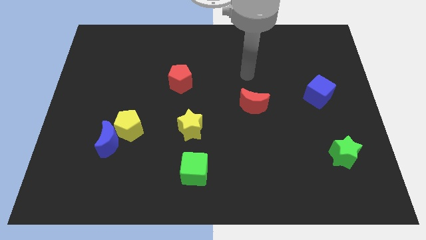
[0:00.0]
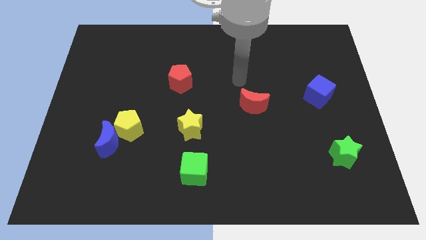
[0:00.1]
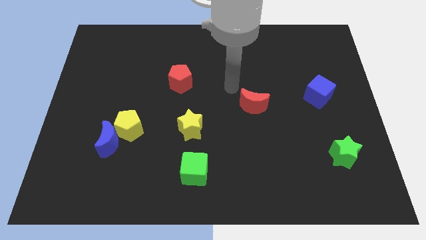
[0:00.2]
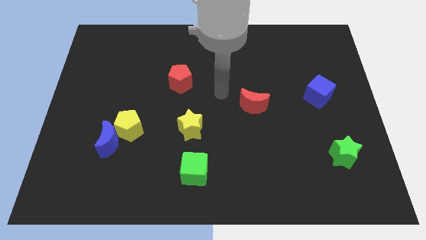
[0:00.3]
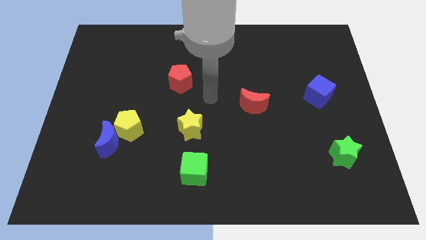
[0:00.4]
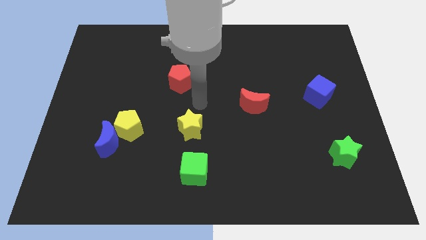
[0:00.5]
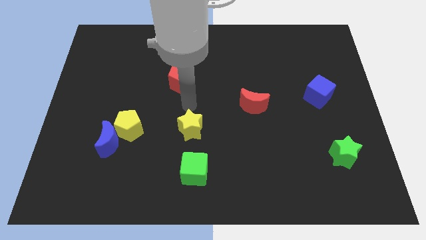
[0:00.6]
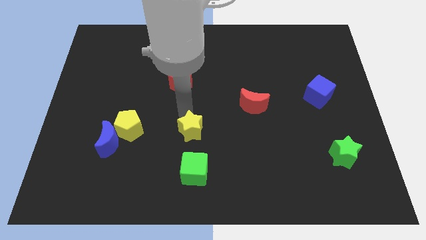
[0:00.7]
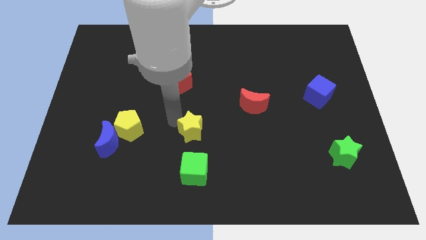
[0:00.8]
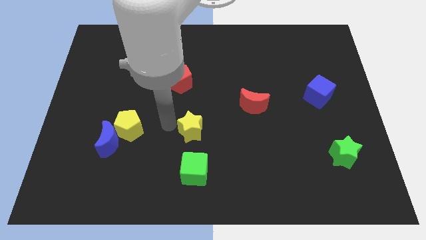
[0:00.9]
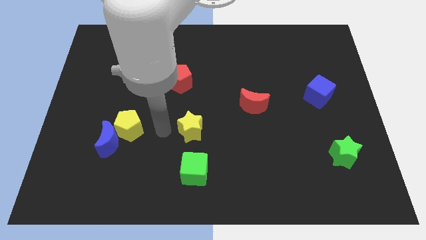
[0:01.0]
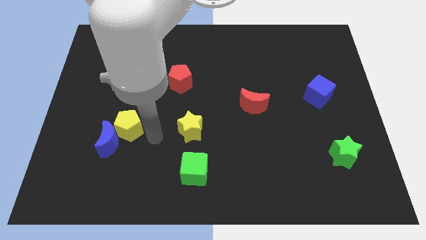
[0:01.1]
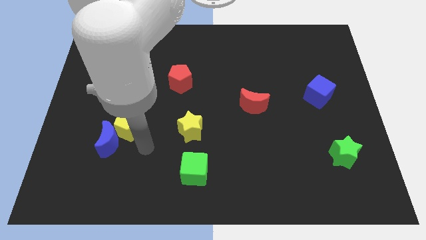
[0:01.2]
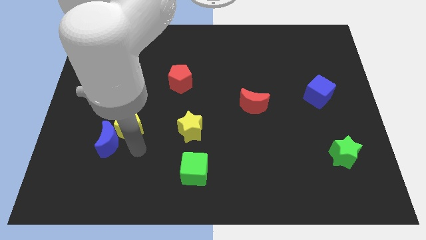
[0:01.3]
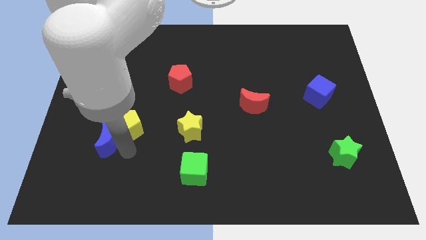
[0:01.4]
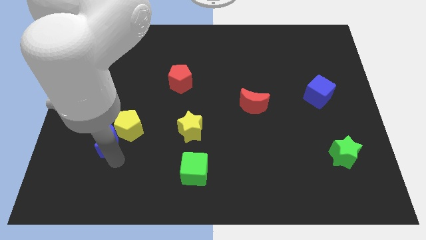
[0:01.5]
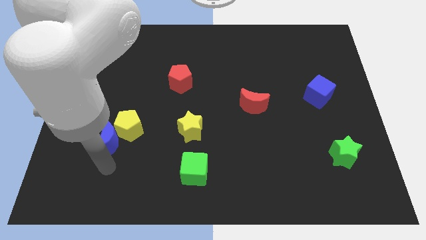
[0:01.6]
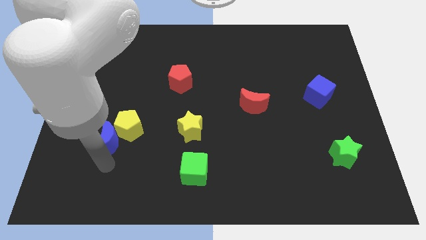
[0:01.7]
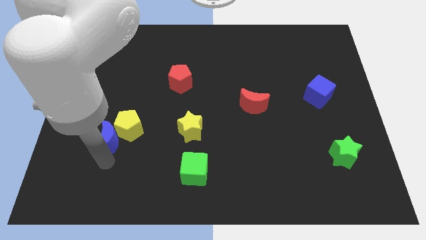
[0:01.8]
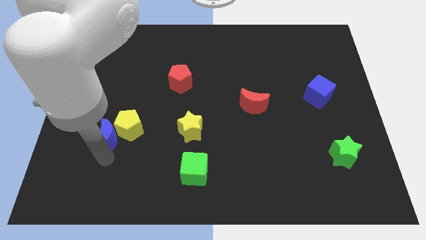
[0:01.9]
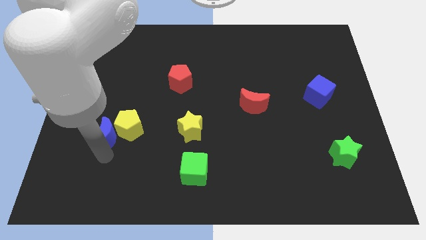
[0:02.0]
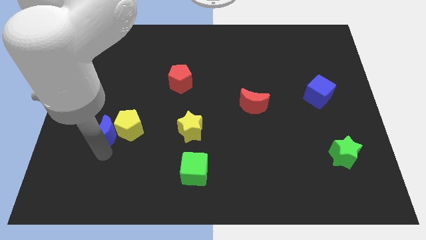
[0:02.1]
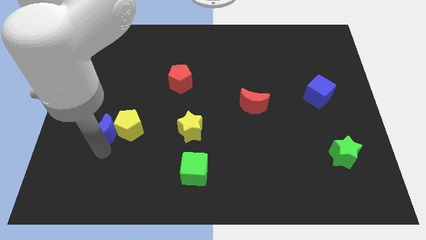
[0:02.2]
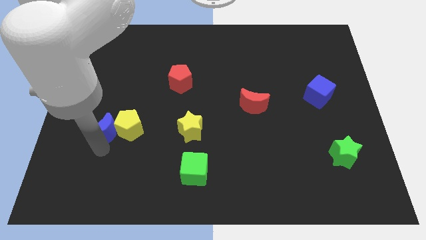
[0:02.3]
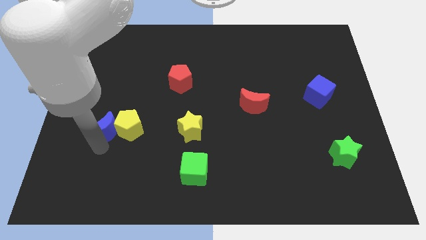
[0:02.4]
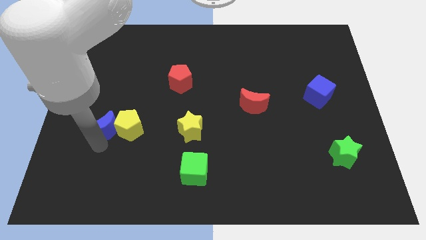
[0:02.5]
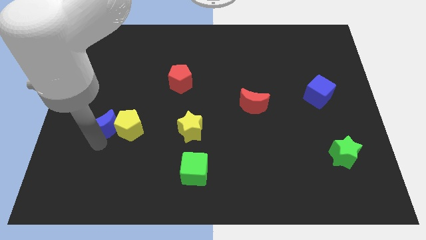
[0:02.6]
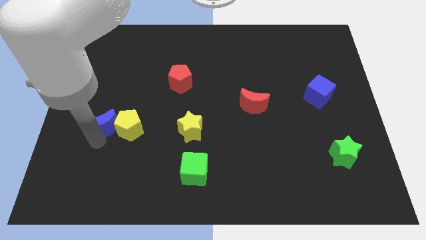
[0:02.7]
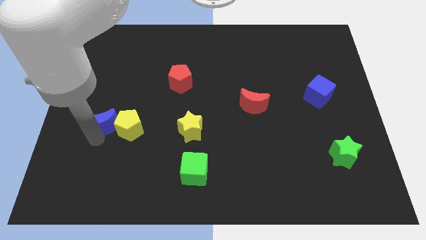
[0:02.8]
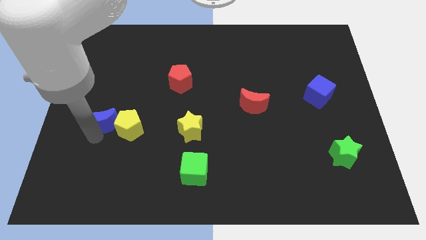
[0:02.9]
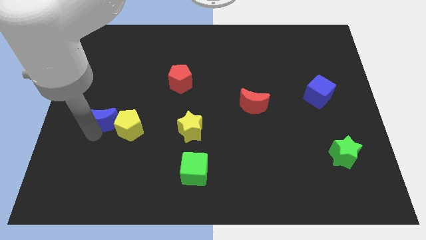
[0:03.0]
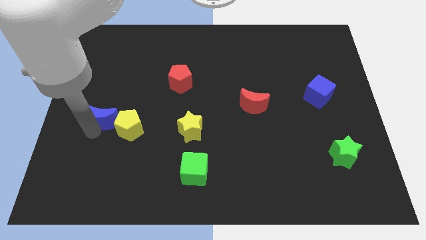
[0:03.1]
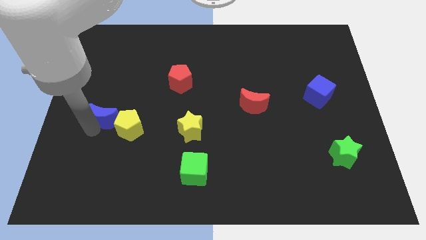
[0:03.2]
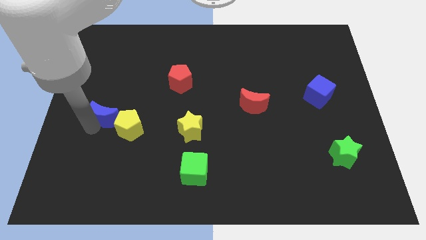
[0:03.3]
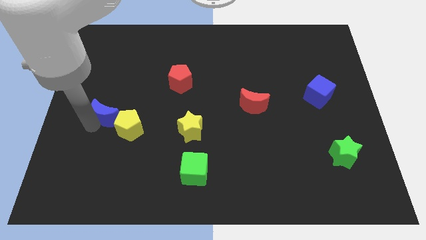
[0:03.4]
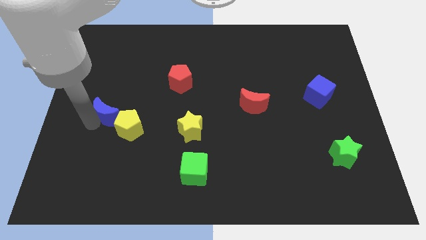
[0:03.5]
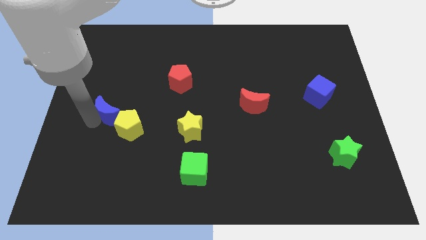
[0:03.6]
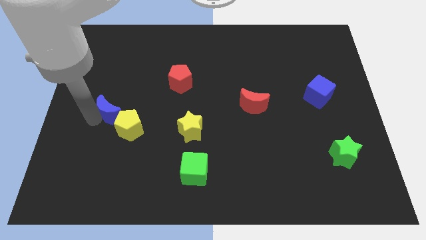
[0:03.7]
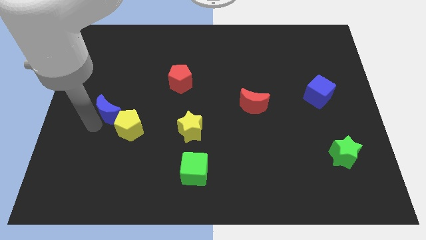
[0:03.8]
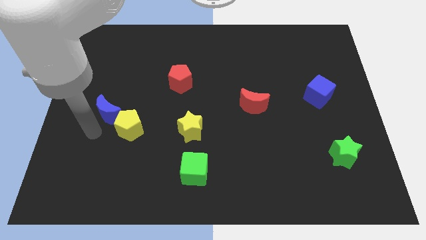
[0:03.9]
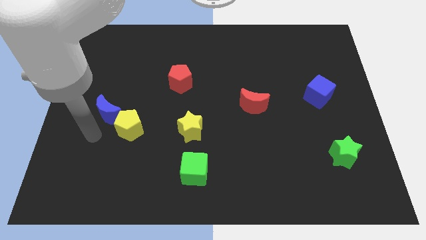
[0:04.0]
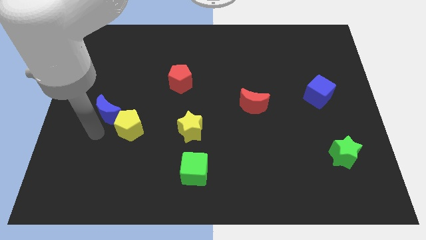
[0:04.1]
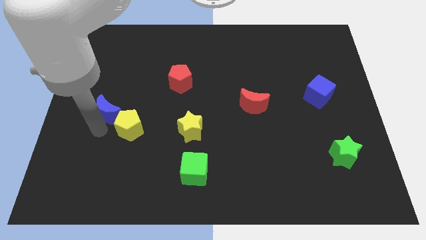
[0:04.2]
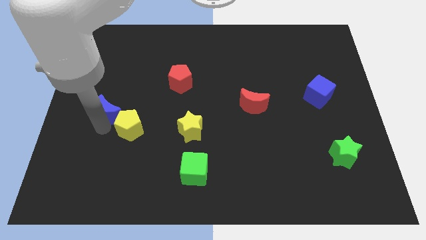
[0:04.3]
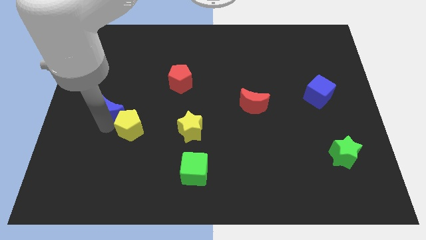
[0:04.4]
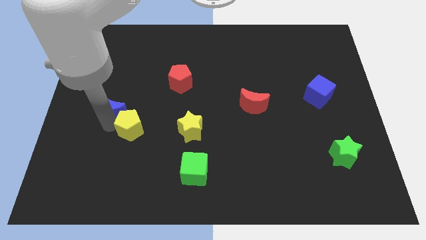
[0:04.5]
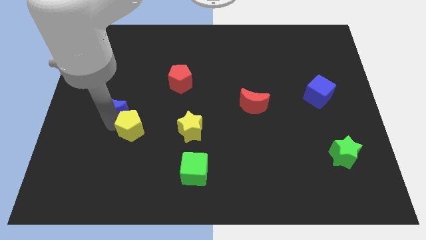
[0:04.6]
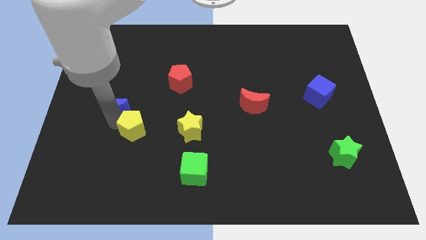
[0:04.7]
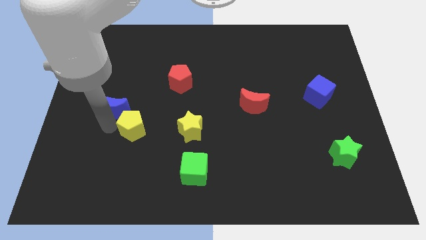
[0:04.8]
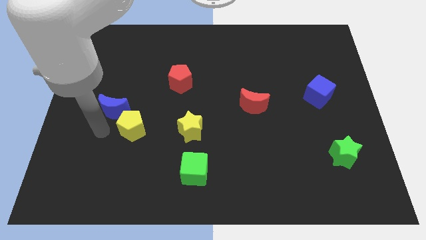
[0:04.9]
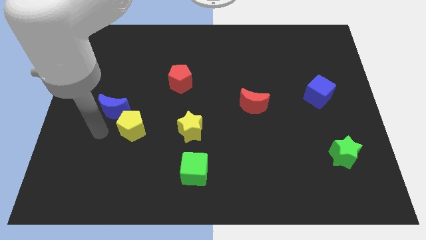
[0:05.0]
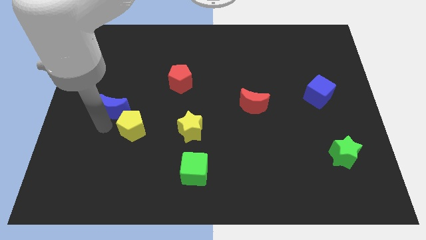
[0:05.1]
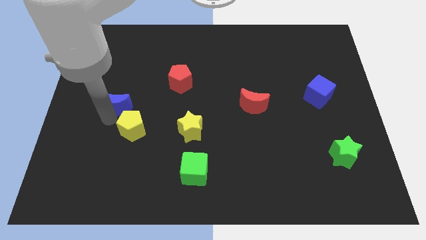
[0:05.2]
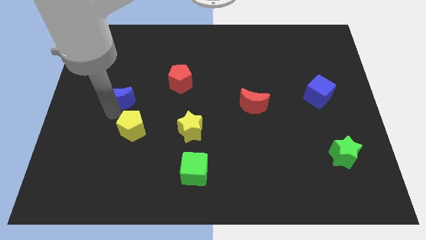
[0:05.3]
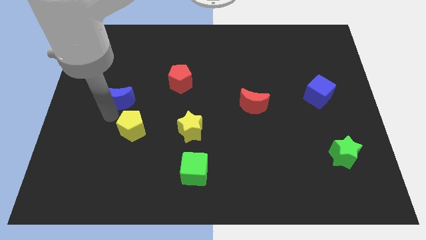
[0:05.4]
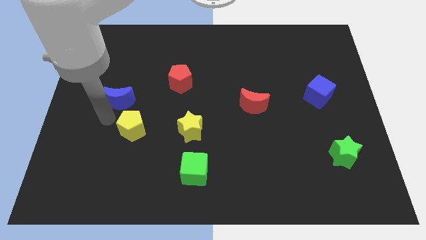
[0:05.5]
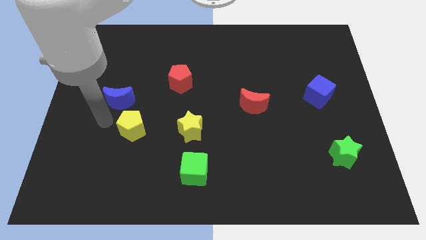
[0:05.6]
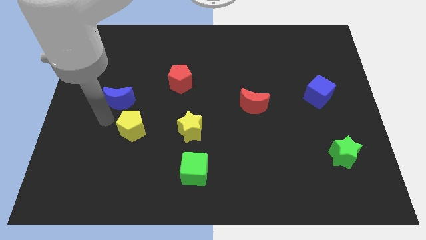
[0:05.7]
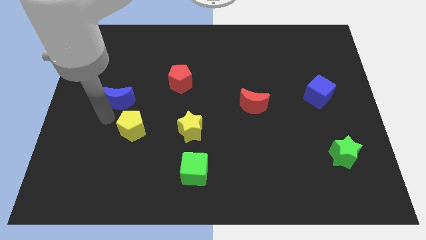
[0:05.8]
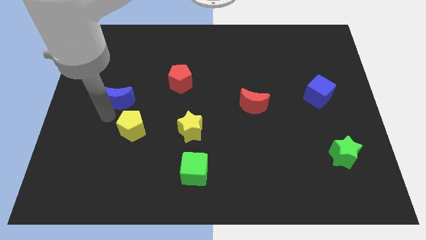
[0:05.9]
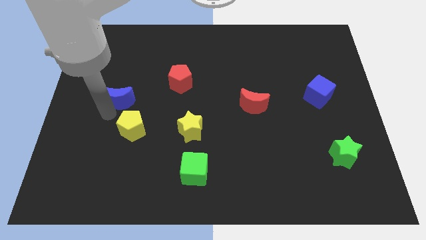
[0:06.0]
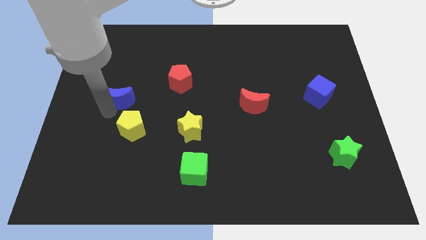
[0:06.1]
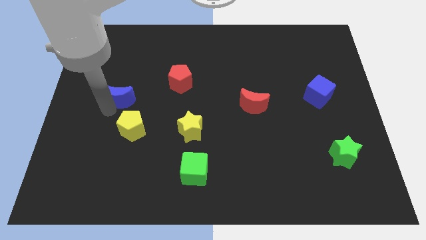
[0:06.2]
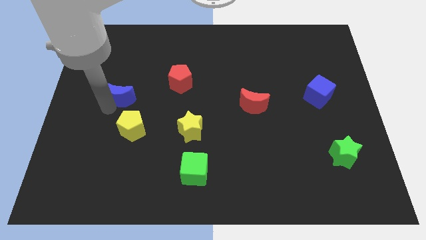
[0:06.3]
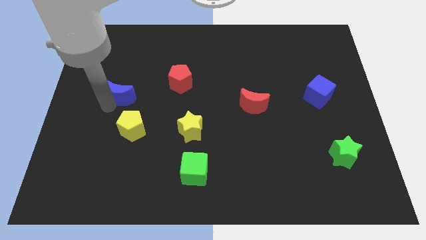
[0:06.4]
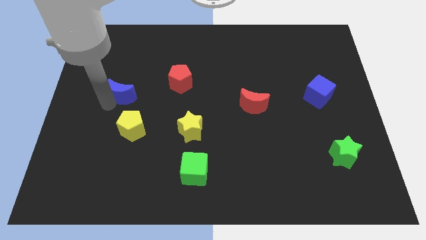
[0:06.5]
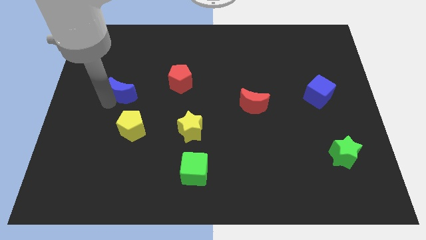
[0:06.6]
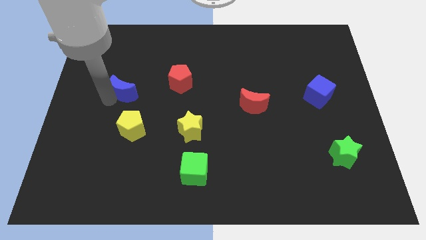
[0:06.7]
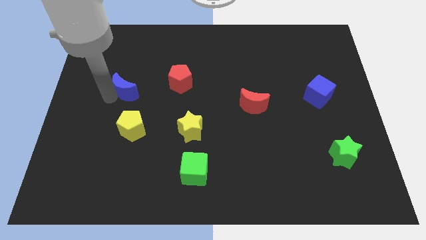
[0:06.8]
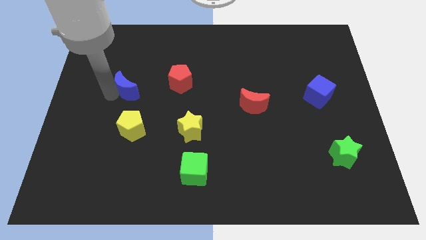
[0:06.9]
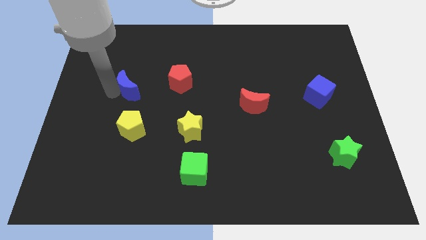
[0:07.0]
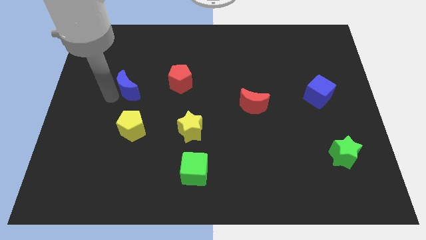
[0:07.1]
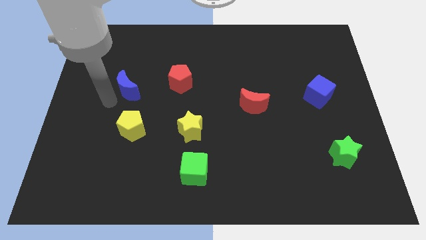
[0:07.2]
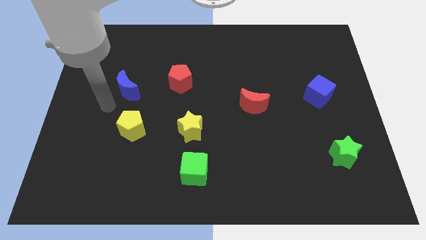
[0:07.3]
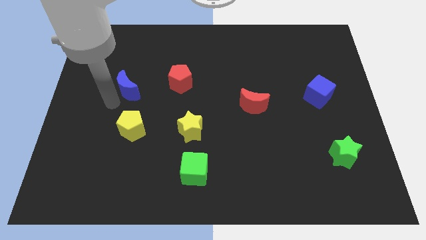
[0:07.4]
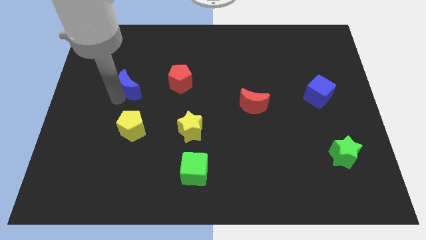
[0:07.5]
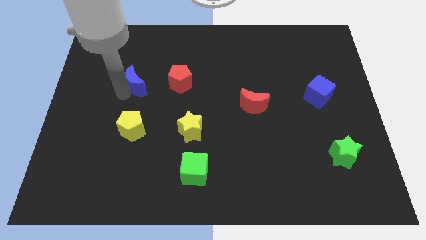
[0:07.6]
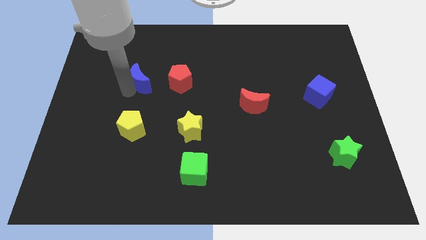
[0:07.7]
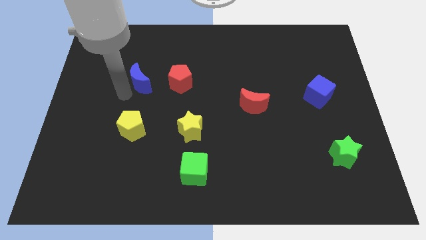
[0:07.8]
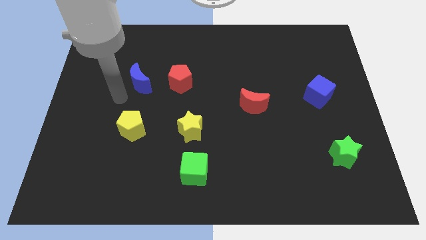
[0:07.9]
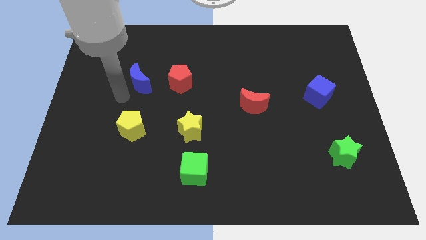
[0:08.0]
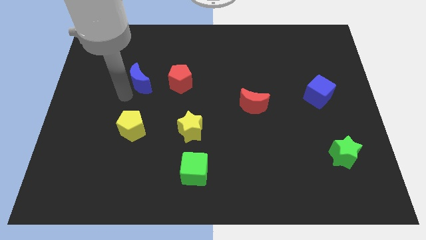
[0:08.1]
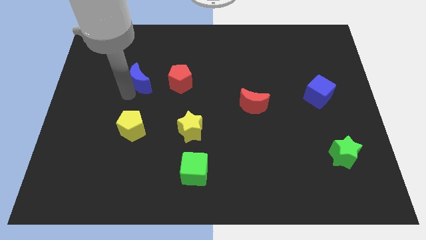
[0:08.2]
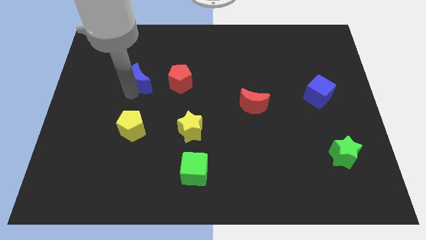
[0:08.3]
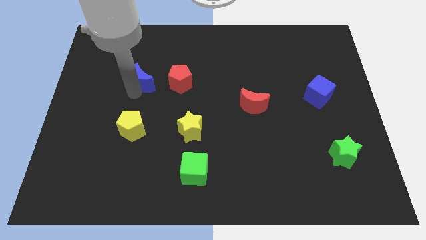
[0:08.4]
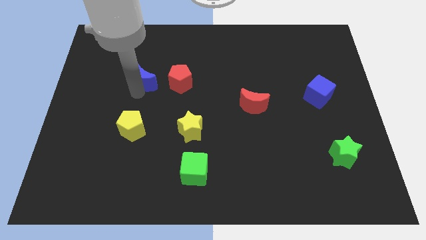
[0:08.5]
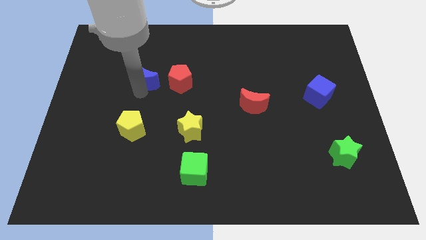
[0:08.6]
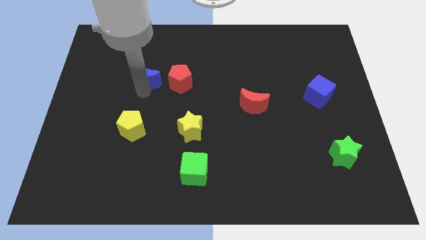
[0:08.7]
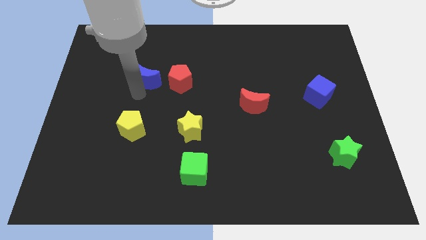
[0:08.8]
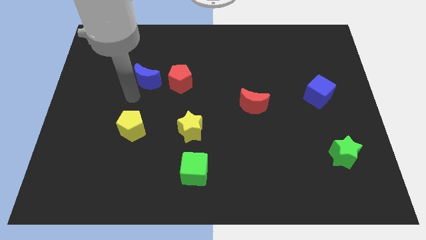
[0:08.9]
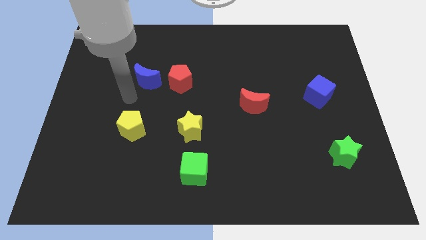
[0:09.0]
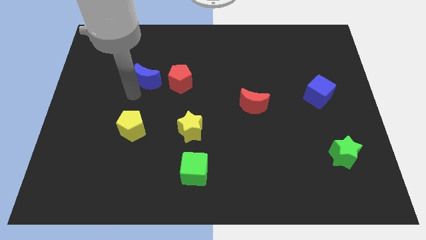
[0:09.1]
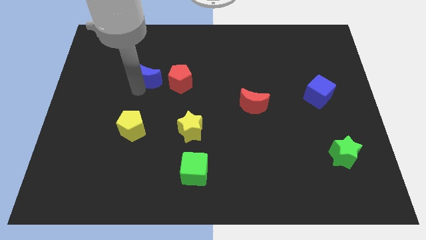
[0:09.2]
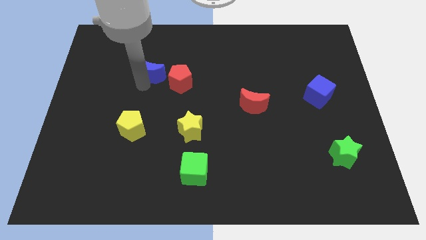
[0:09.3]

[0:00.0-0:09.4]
slide the blue moon to the top left side of the red pentagon
